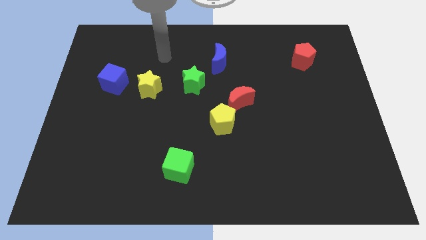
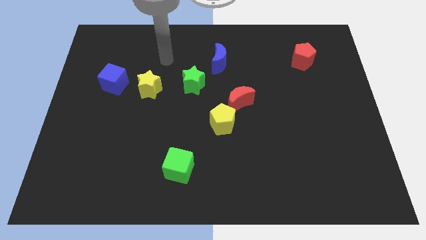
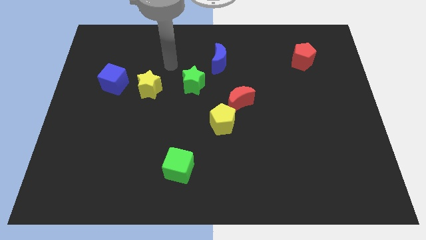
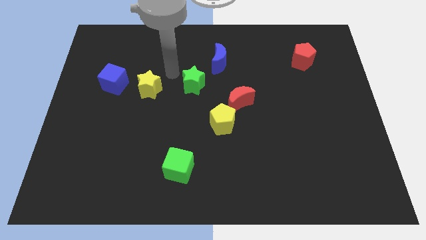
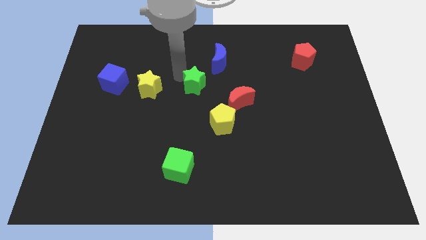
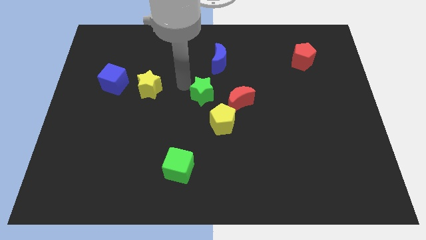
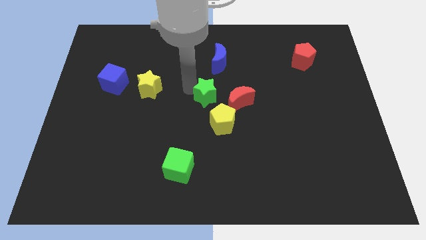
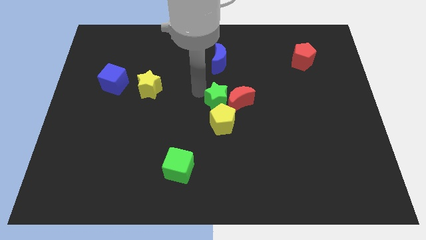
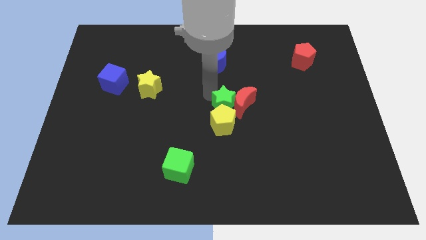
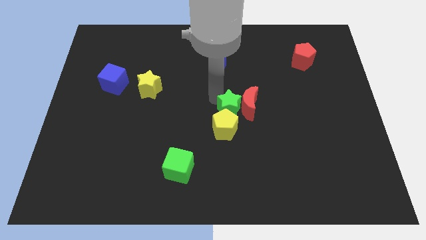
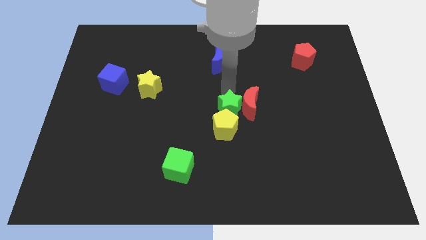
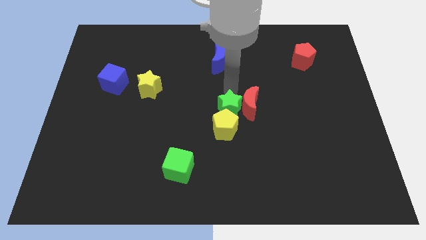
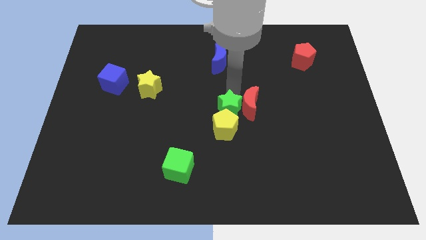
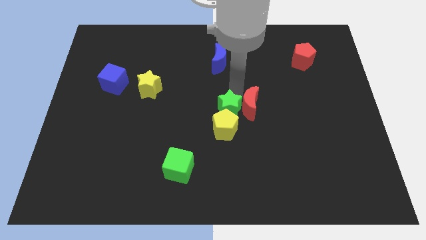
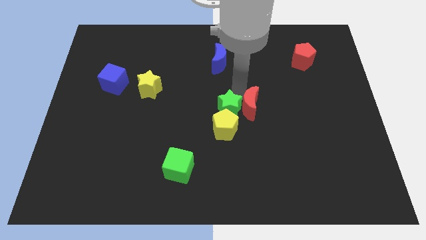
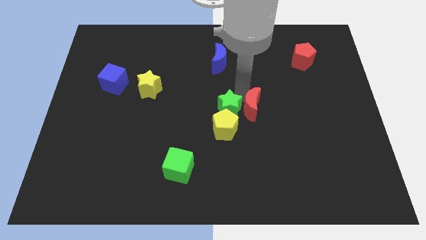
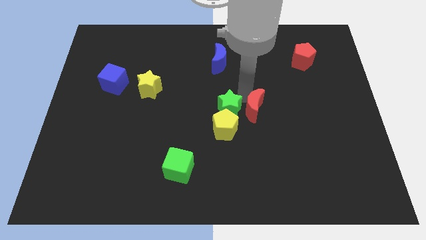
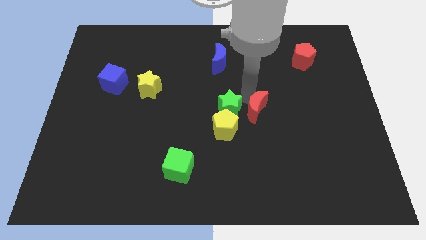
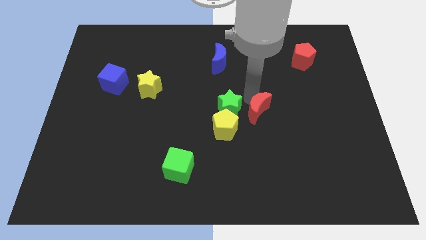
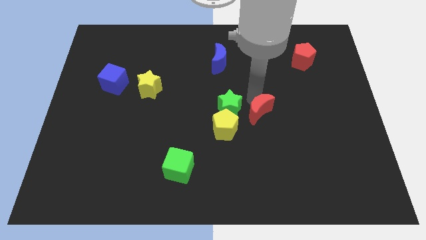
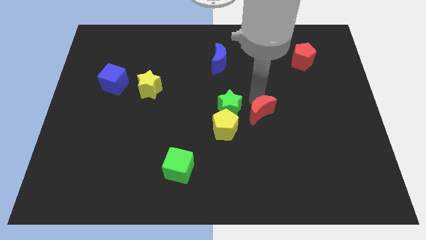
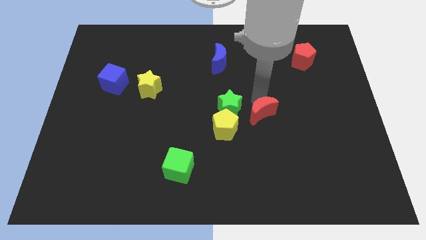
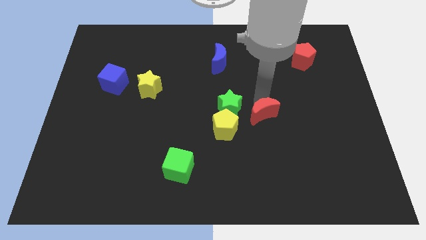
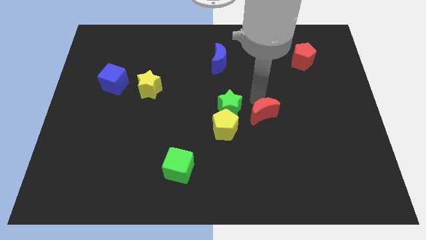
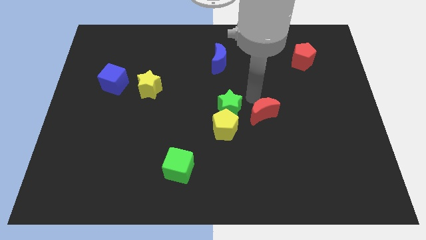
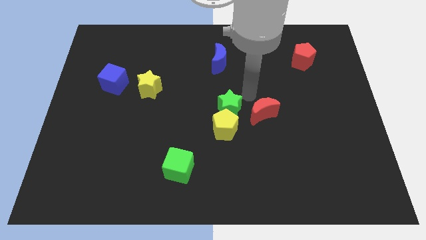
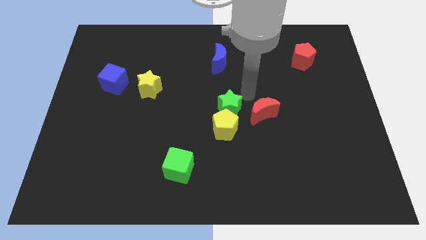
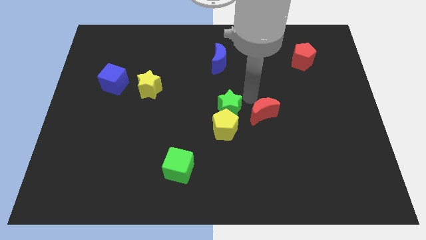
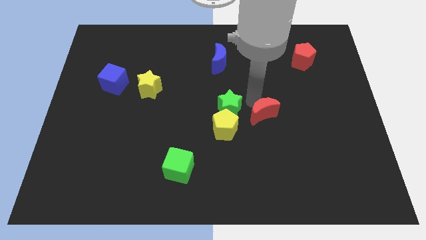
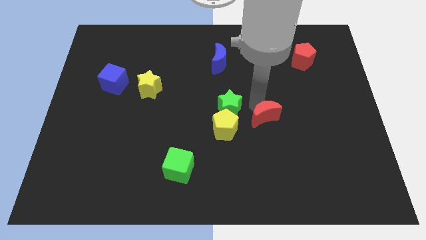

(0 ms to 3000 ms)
push the red moon downwards and to the right diagonally a little

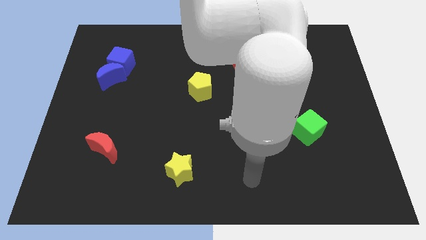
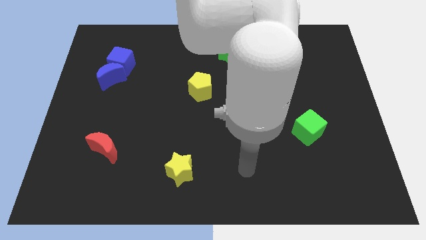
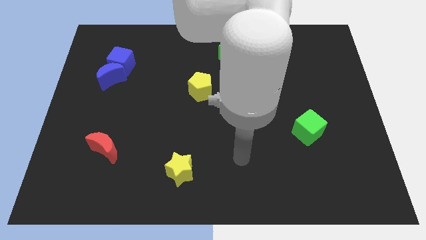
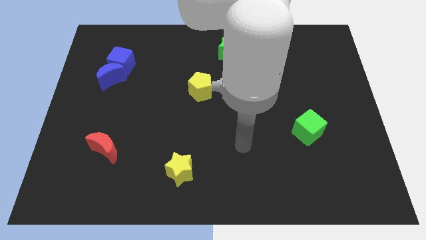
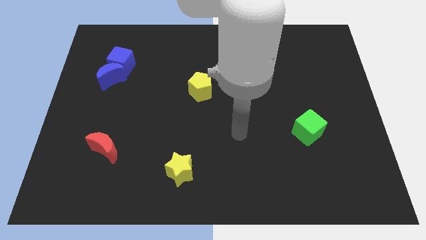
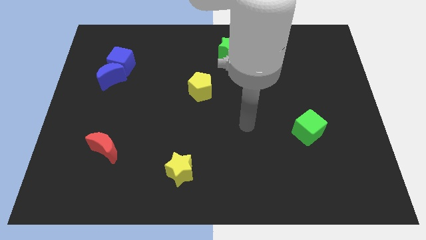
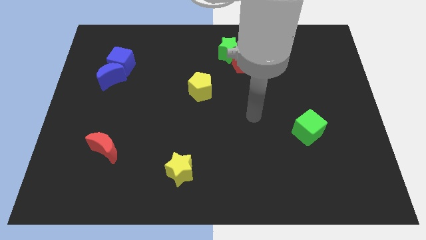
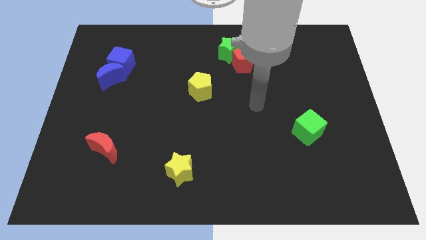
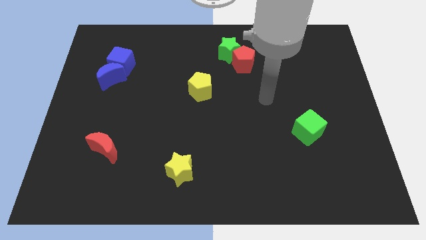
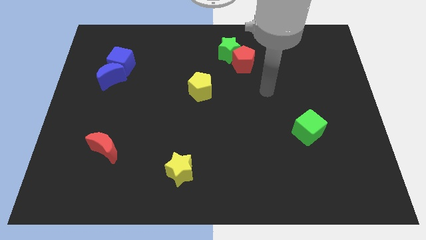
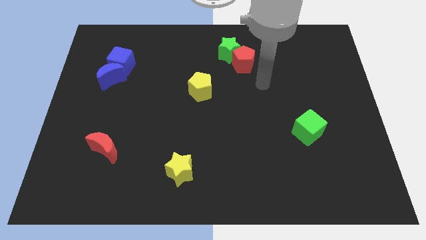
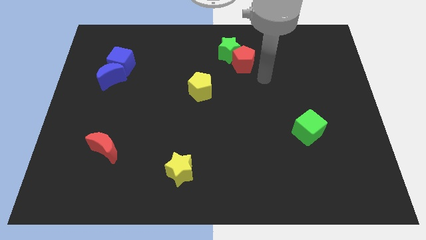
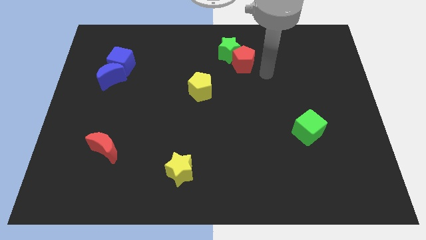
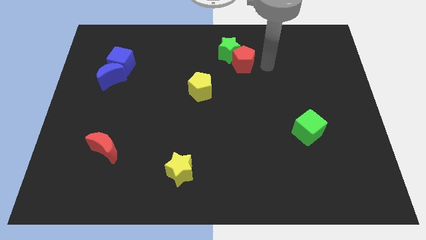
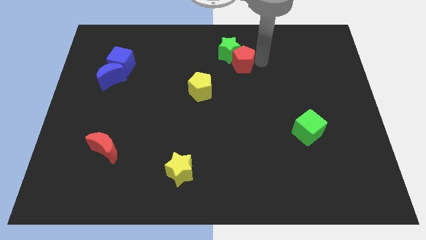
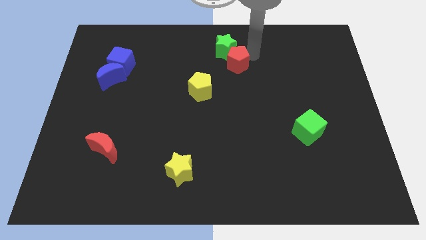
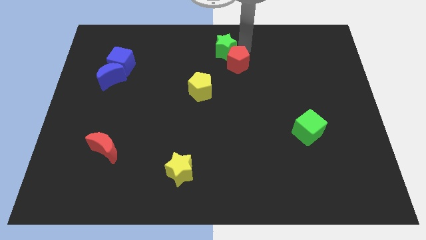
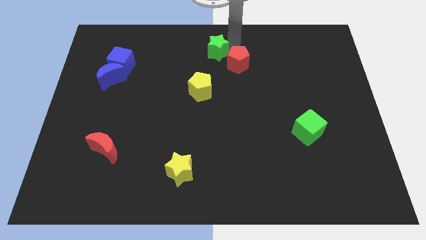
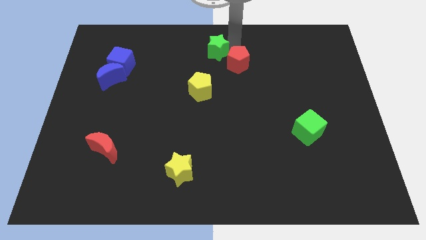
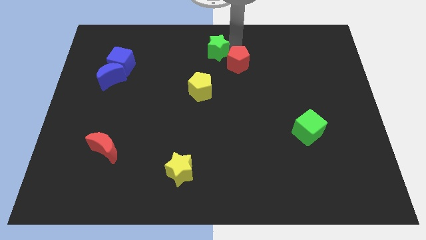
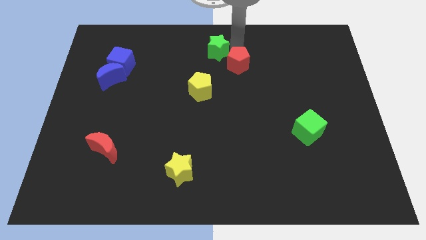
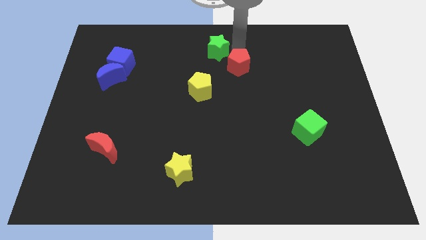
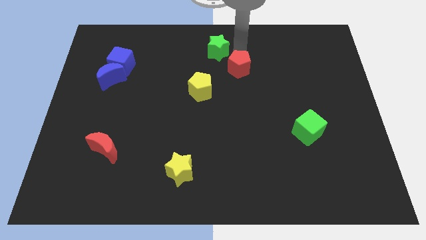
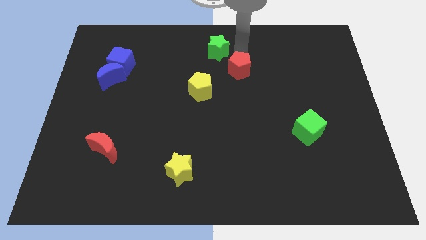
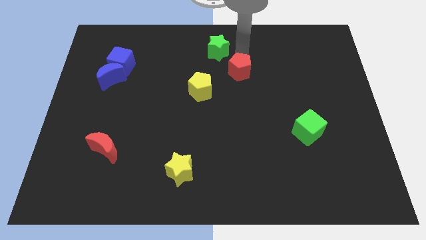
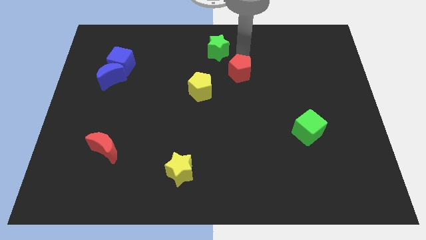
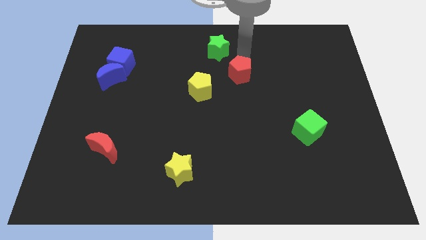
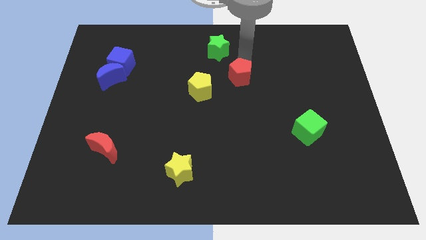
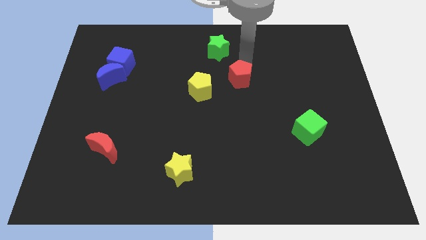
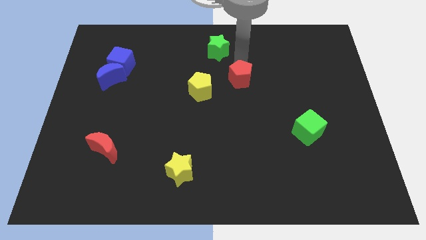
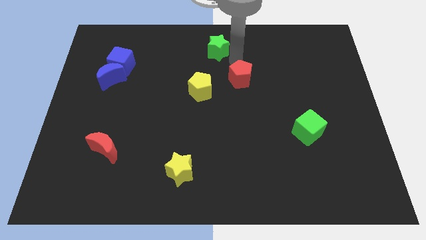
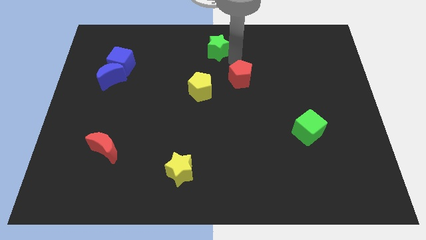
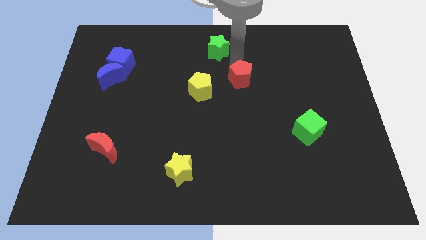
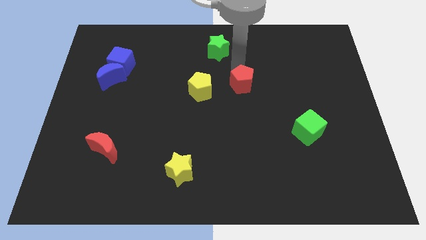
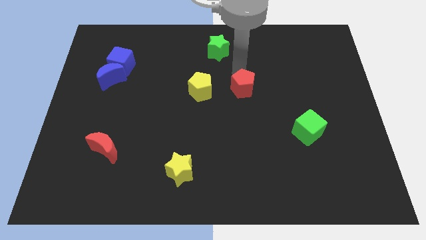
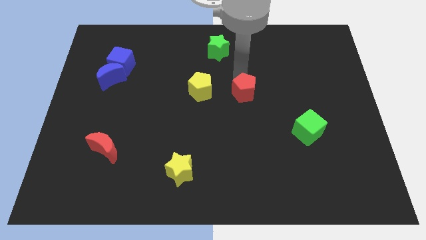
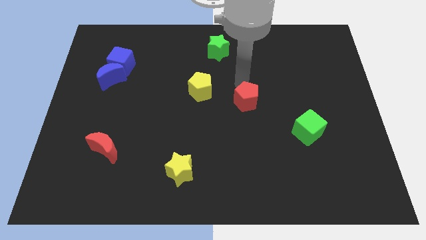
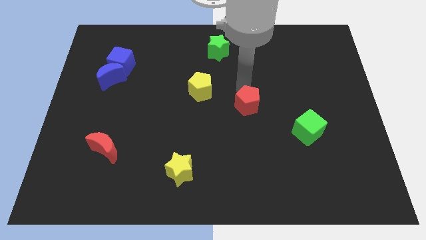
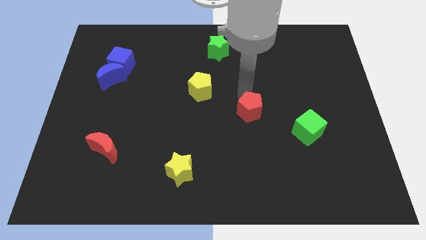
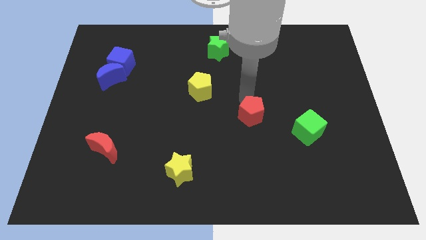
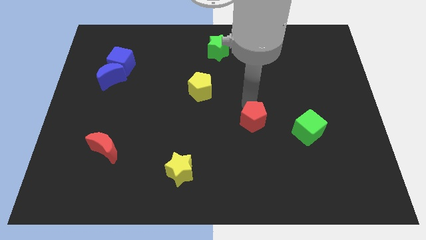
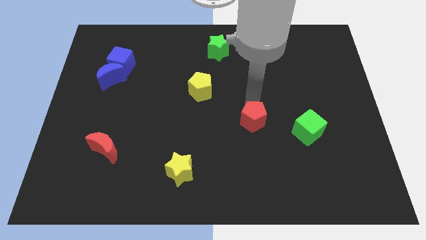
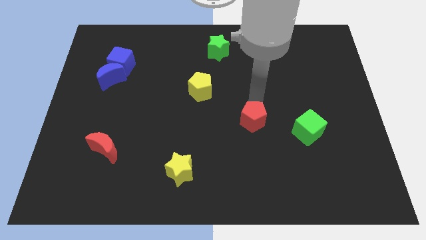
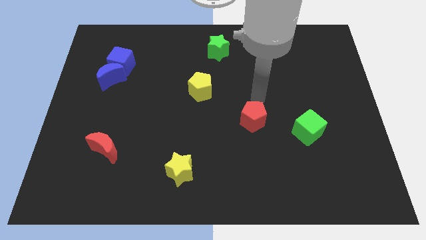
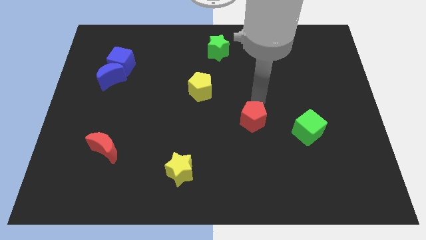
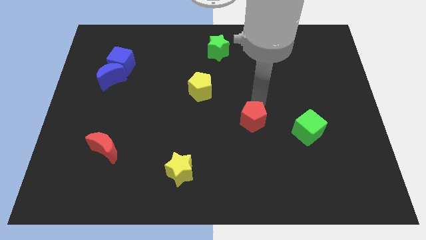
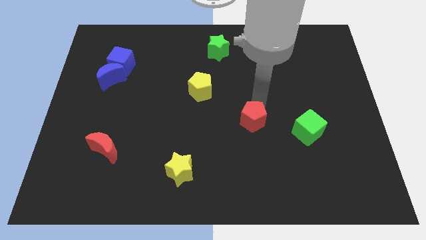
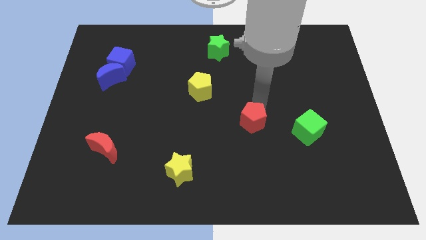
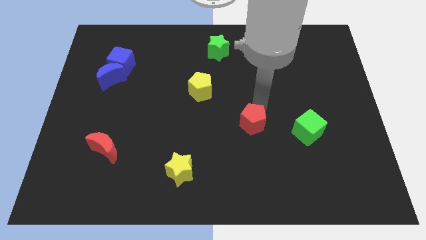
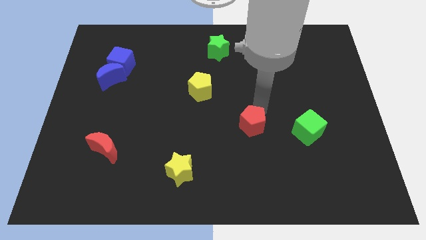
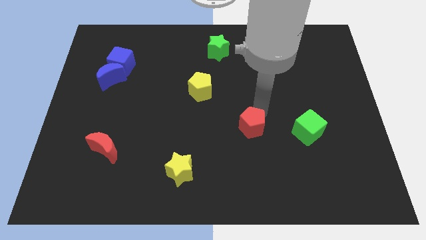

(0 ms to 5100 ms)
push the red pentagon downwards

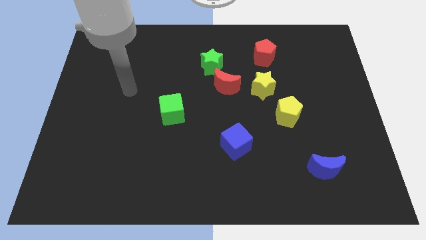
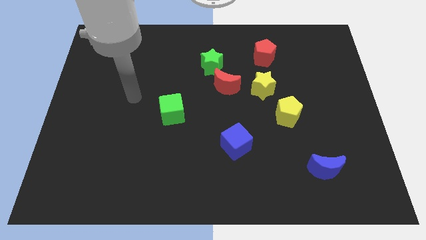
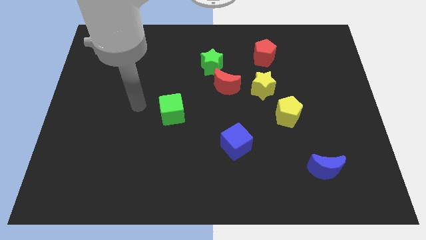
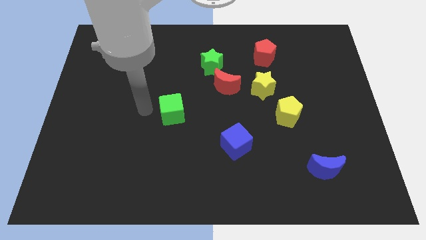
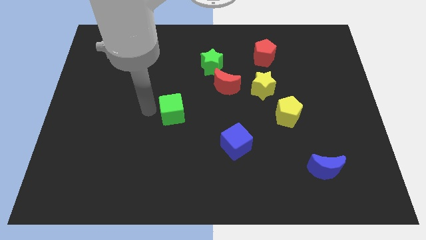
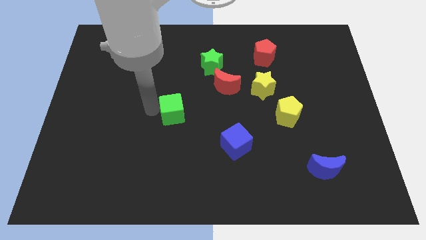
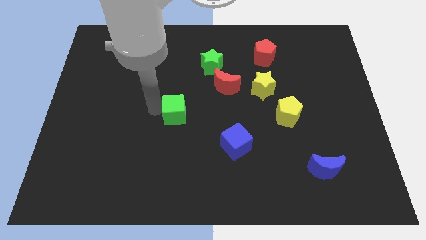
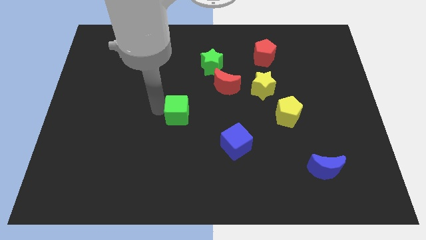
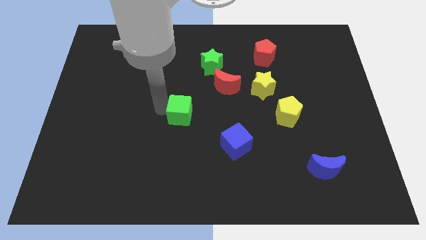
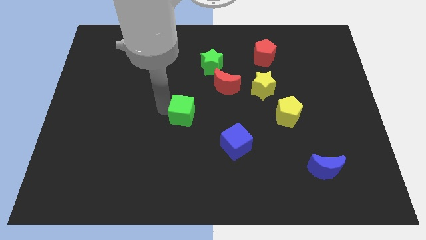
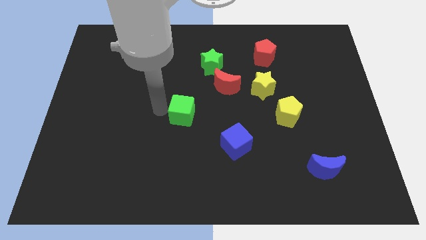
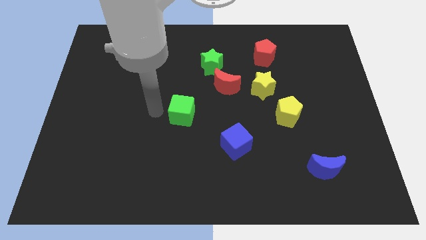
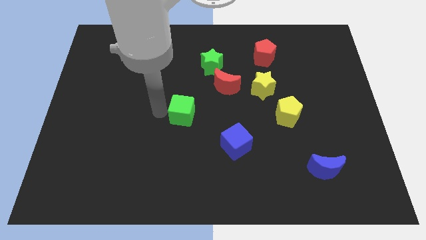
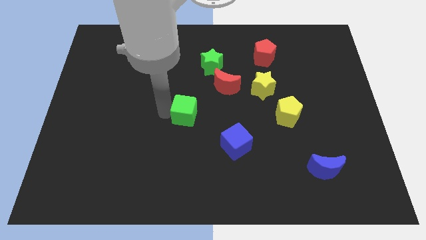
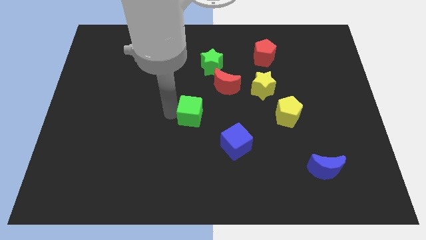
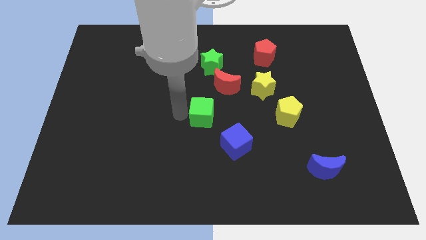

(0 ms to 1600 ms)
slide the green cube slightly right
